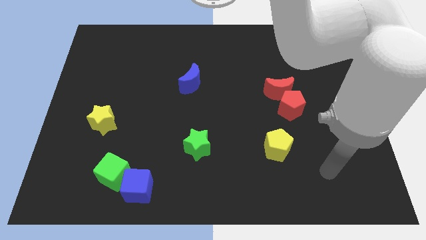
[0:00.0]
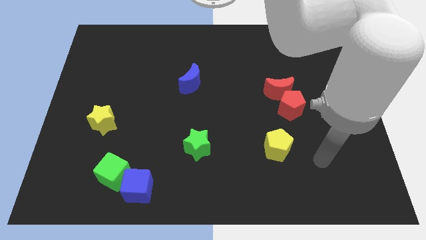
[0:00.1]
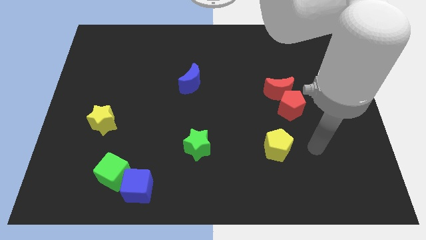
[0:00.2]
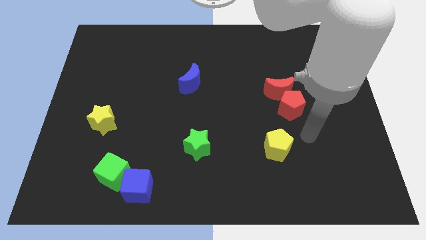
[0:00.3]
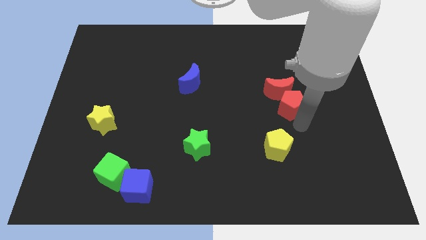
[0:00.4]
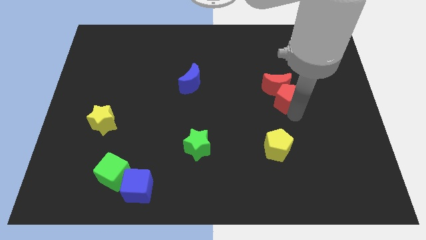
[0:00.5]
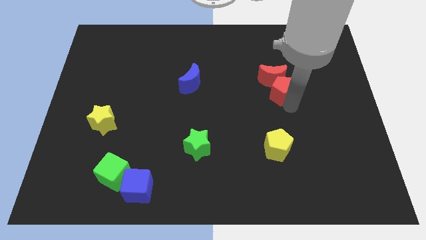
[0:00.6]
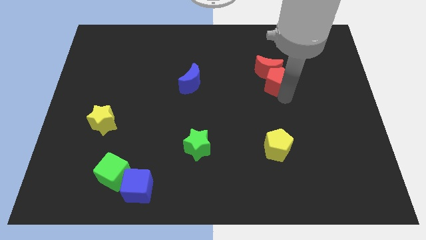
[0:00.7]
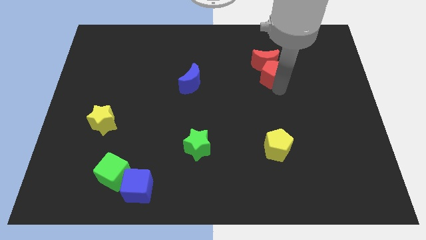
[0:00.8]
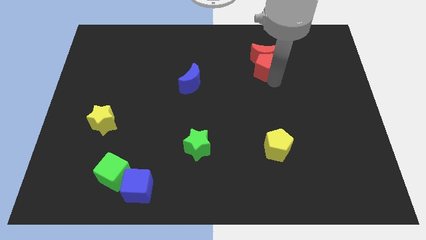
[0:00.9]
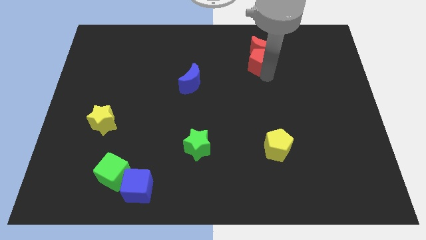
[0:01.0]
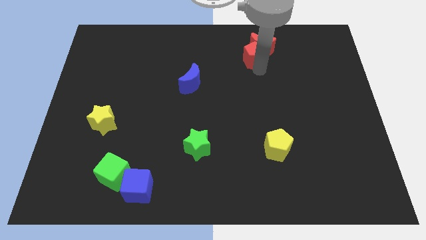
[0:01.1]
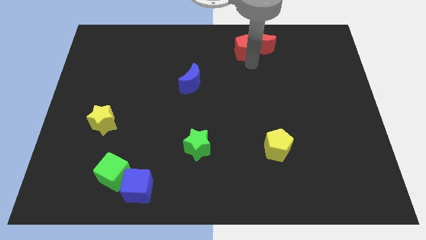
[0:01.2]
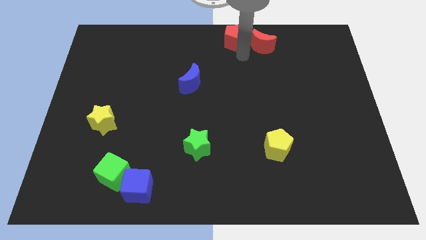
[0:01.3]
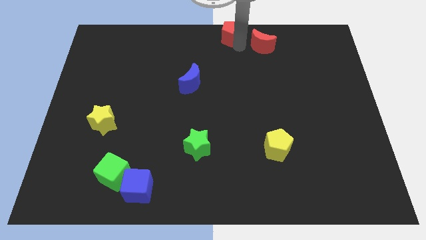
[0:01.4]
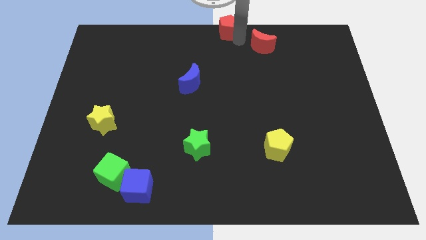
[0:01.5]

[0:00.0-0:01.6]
pull the red moon apart from the red pentagon

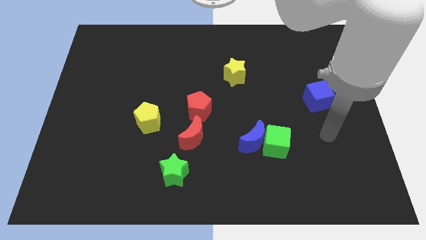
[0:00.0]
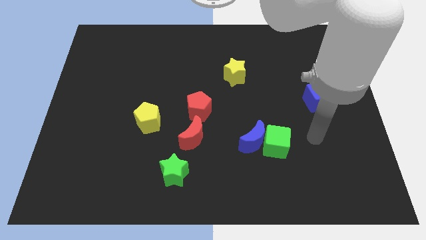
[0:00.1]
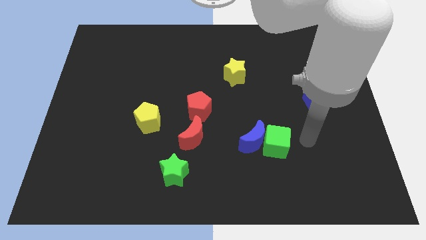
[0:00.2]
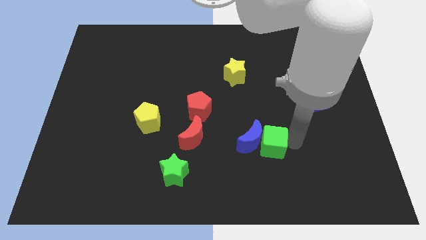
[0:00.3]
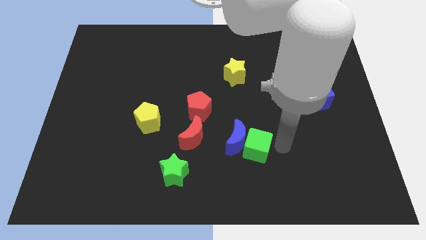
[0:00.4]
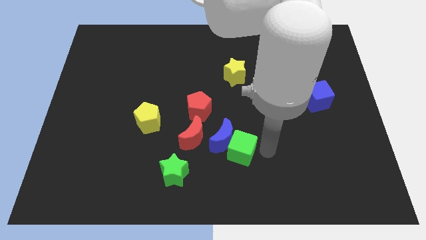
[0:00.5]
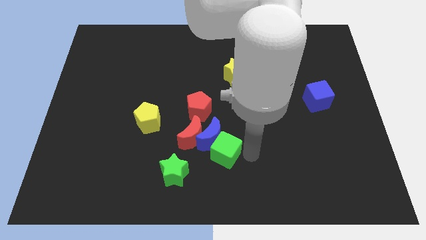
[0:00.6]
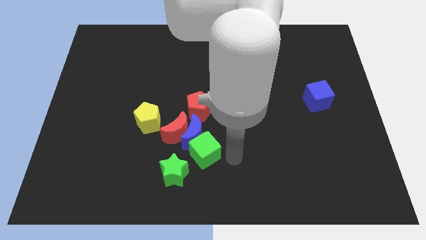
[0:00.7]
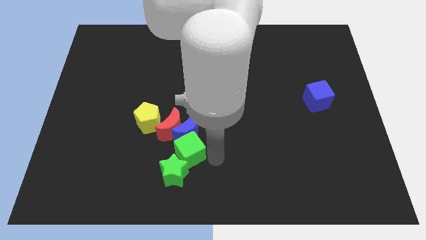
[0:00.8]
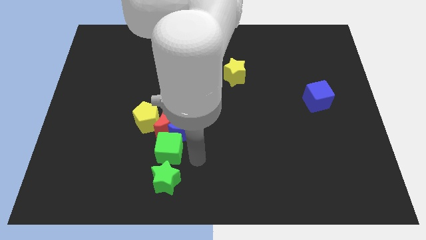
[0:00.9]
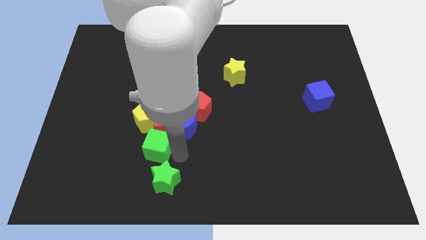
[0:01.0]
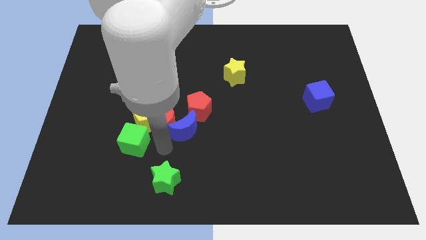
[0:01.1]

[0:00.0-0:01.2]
separate the blue moon from the green cube

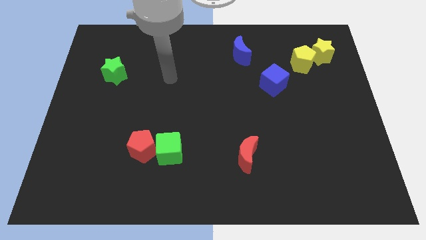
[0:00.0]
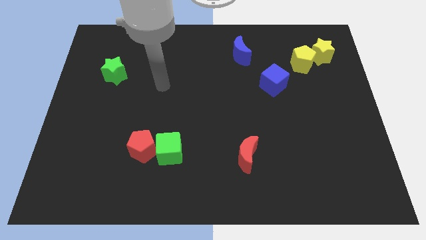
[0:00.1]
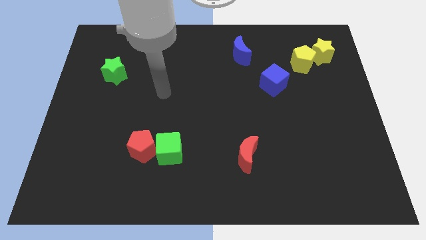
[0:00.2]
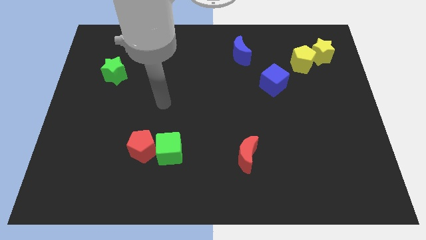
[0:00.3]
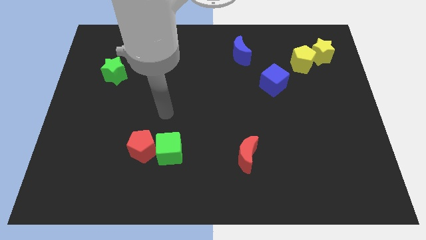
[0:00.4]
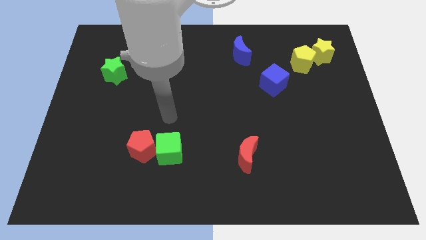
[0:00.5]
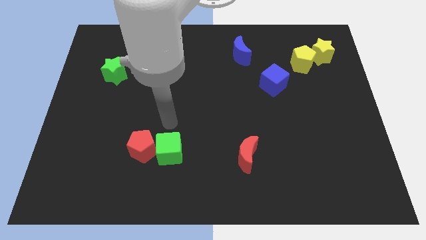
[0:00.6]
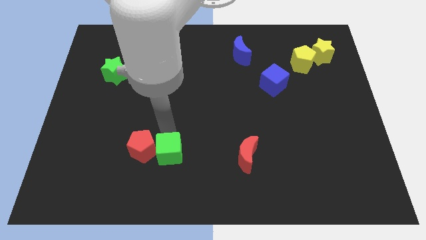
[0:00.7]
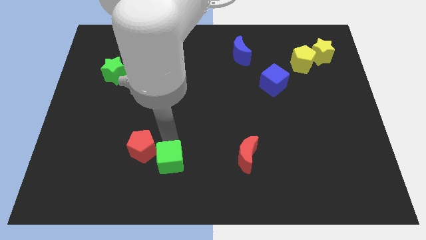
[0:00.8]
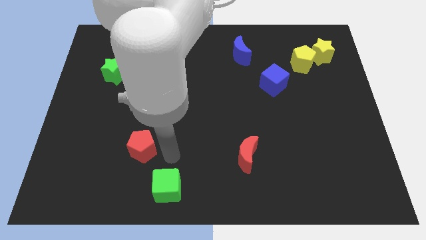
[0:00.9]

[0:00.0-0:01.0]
separate the red pentagon from the green cube

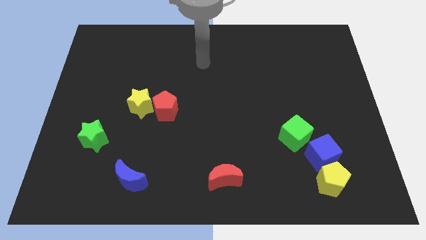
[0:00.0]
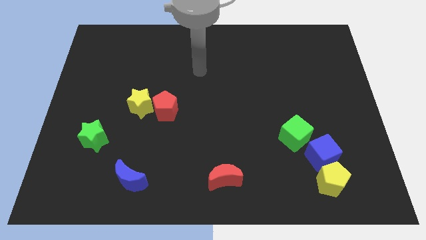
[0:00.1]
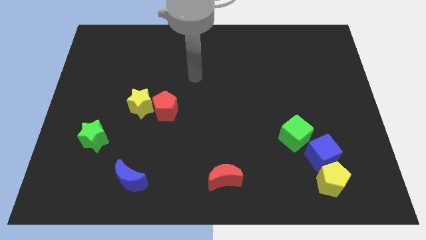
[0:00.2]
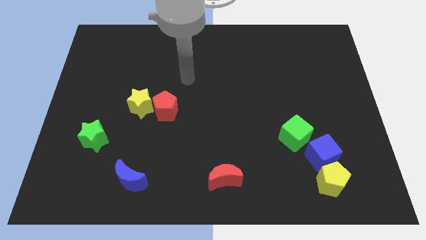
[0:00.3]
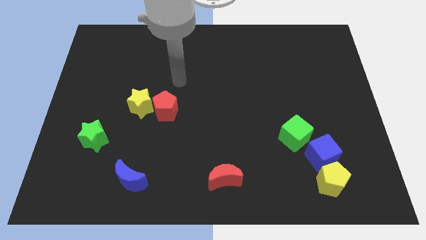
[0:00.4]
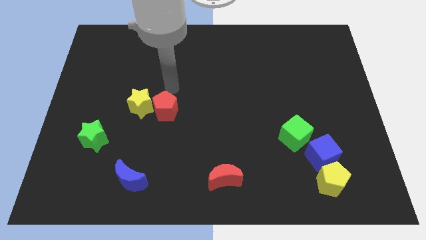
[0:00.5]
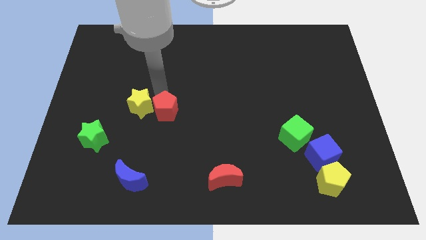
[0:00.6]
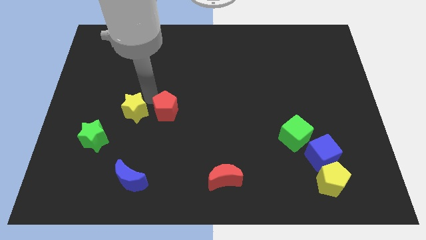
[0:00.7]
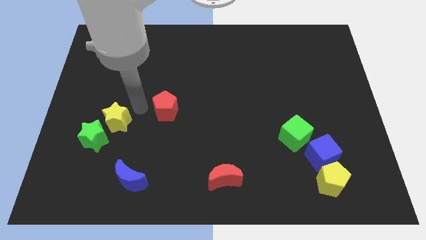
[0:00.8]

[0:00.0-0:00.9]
move the red pentagon away from the yellow star

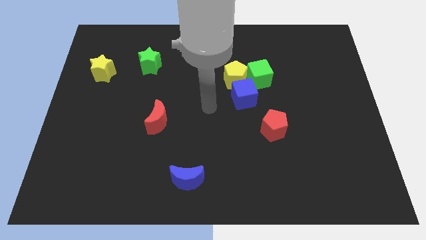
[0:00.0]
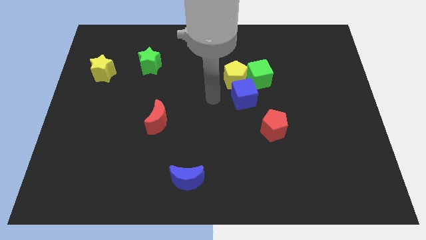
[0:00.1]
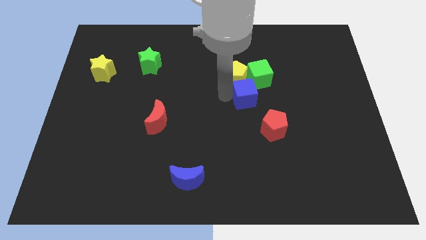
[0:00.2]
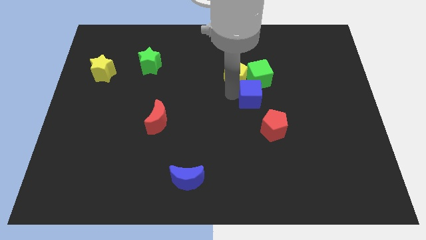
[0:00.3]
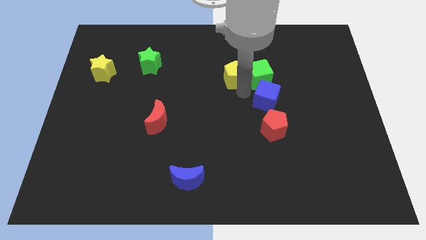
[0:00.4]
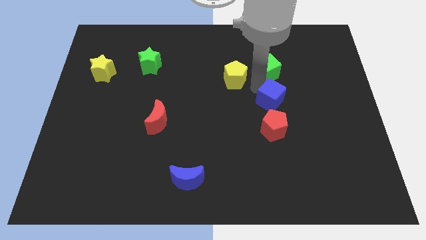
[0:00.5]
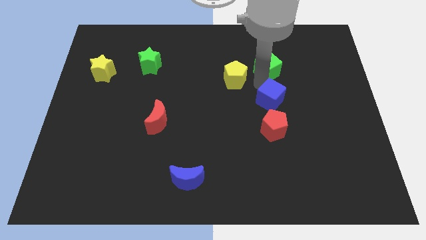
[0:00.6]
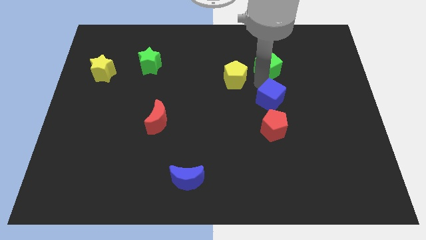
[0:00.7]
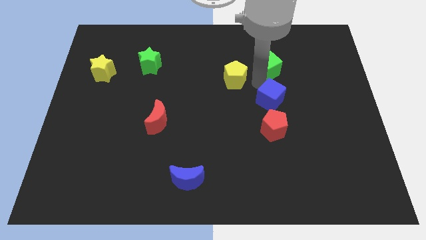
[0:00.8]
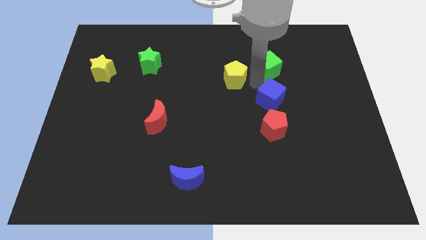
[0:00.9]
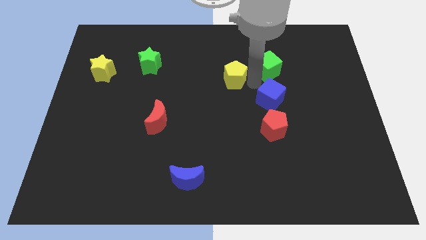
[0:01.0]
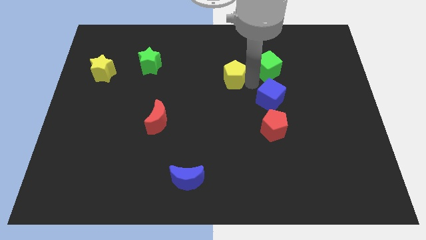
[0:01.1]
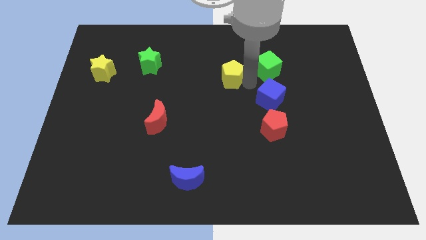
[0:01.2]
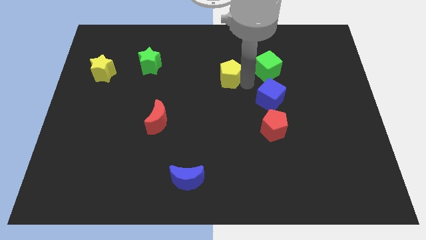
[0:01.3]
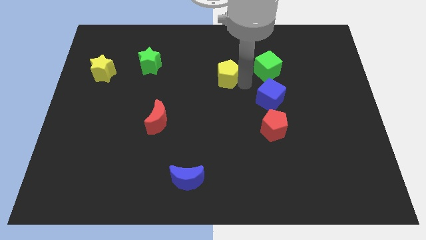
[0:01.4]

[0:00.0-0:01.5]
move the yellow pentagon away from the green cube and blue cube

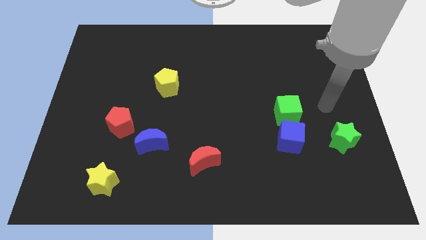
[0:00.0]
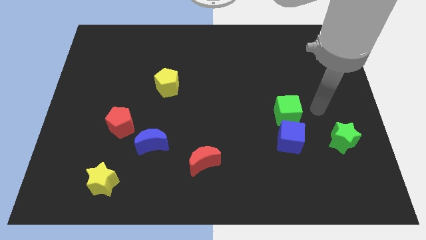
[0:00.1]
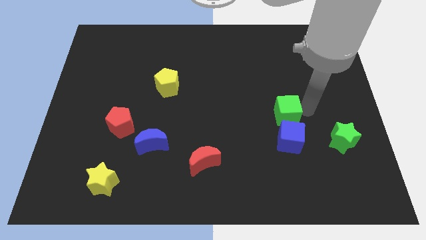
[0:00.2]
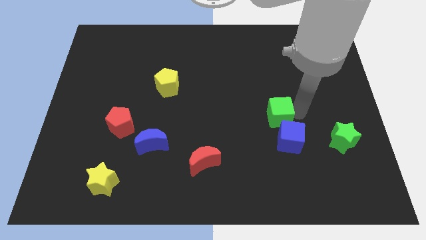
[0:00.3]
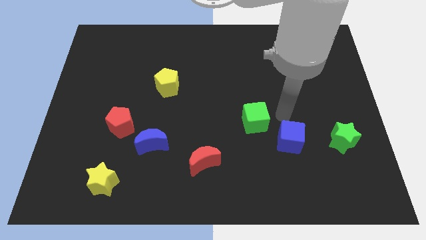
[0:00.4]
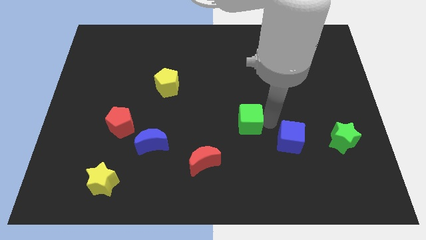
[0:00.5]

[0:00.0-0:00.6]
move the blue cube away from the green cube

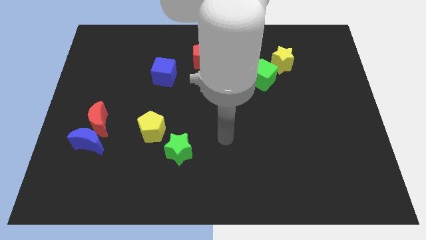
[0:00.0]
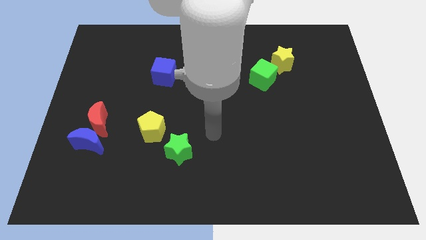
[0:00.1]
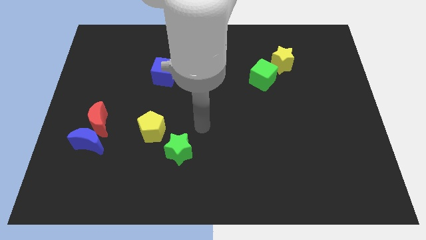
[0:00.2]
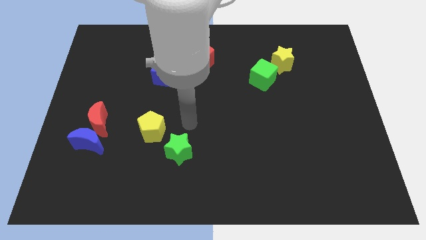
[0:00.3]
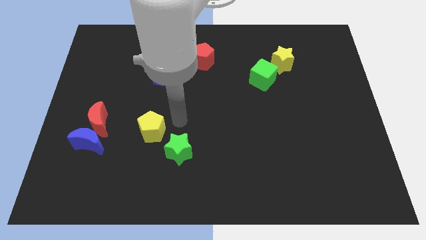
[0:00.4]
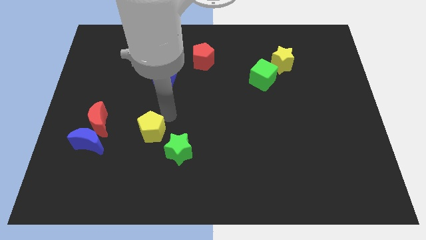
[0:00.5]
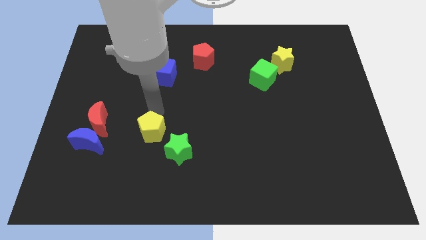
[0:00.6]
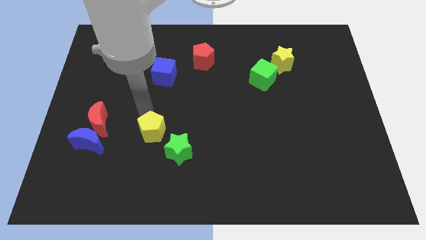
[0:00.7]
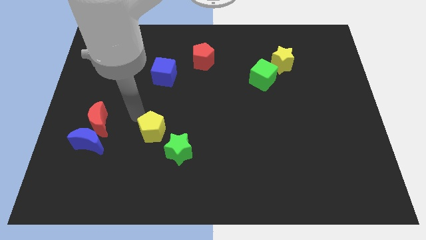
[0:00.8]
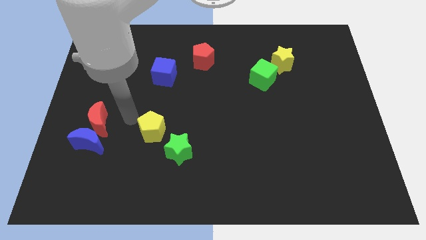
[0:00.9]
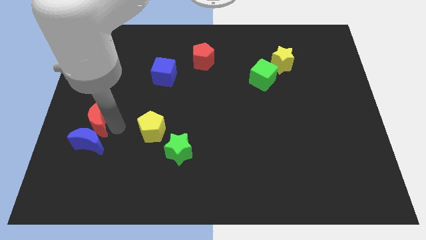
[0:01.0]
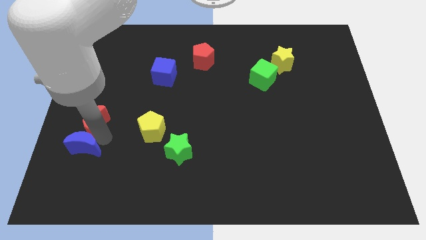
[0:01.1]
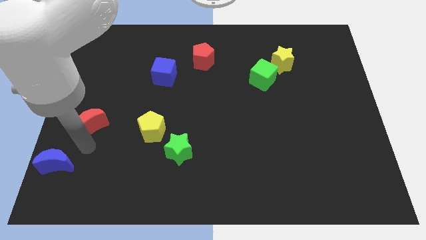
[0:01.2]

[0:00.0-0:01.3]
separate the red moon from the blue moon

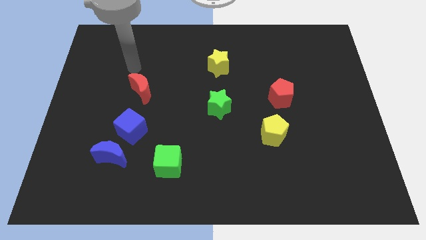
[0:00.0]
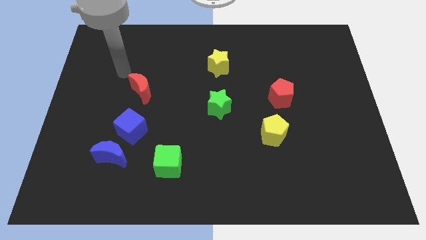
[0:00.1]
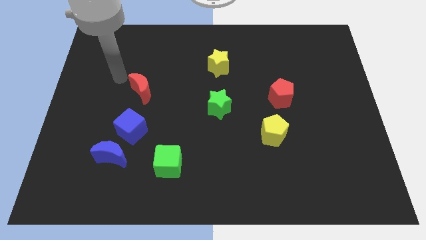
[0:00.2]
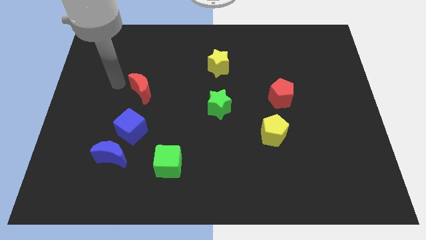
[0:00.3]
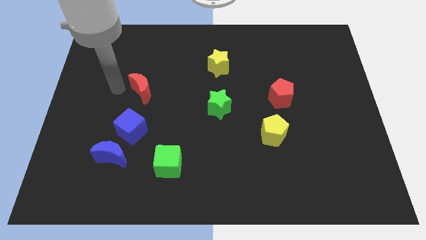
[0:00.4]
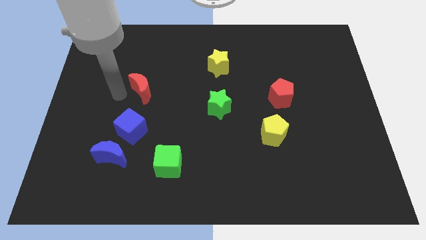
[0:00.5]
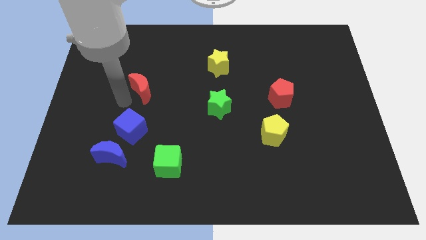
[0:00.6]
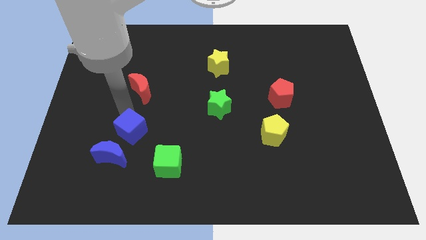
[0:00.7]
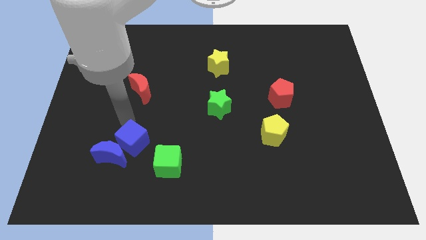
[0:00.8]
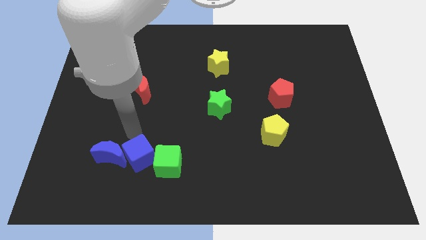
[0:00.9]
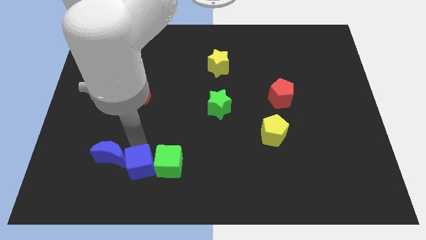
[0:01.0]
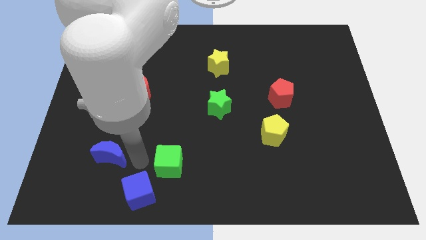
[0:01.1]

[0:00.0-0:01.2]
move the blue moon away from the blue cube
